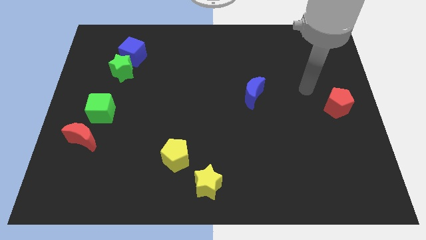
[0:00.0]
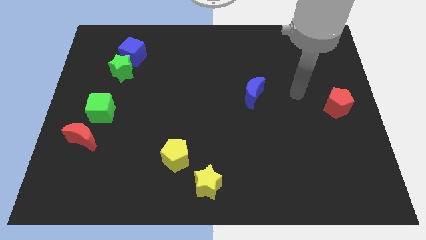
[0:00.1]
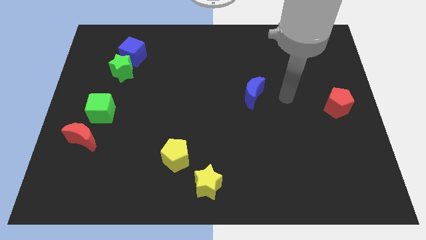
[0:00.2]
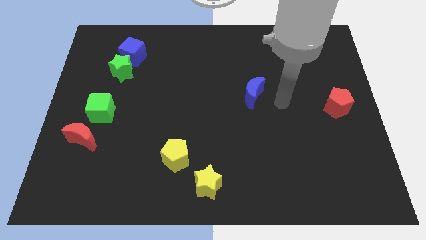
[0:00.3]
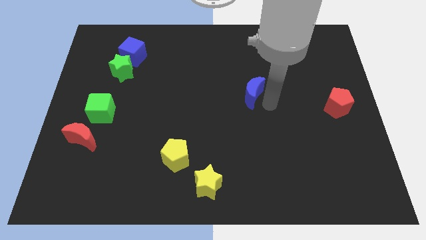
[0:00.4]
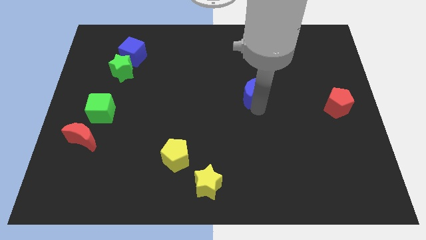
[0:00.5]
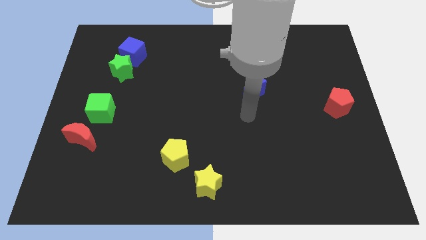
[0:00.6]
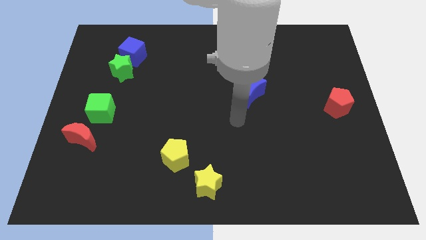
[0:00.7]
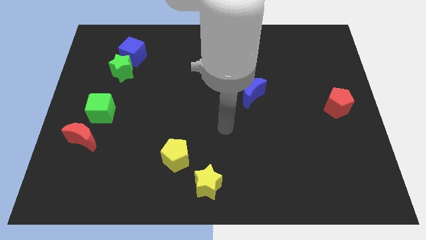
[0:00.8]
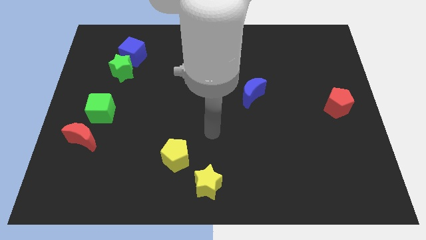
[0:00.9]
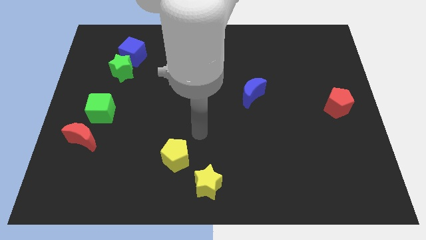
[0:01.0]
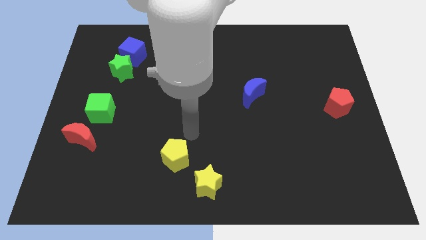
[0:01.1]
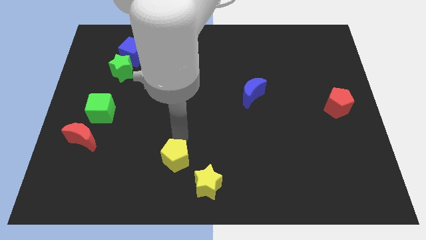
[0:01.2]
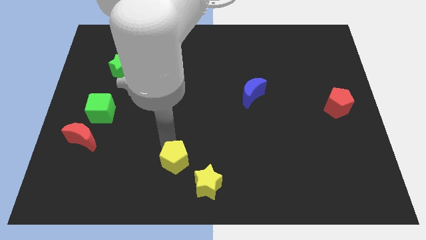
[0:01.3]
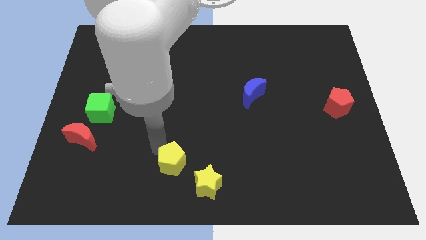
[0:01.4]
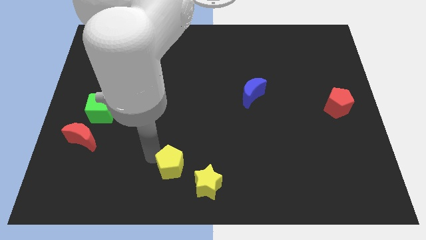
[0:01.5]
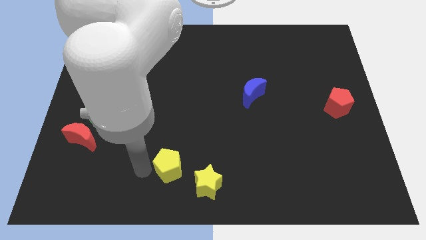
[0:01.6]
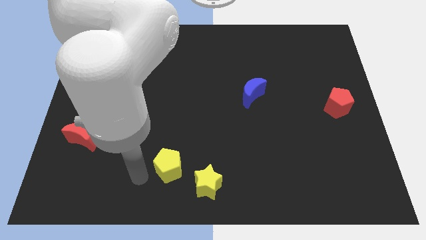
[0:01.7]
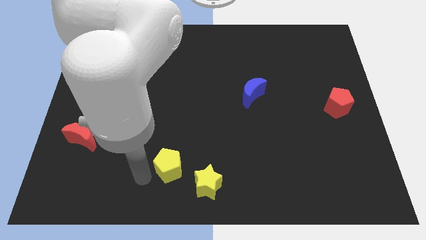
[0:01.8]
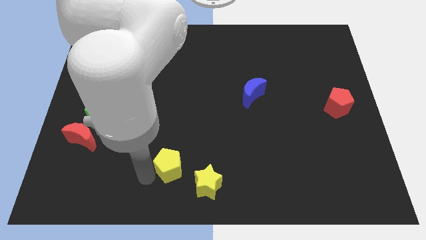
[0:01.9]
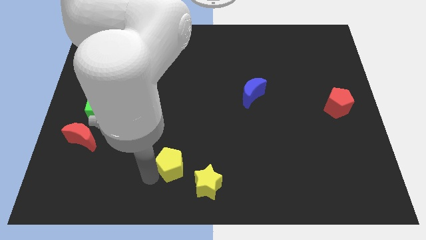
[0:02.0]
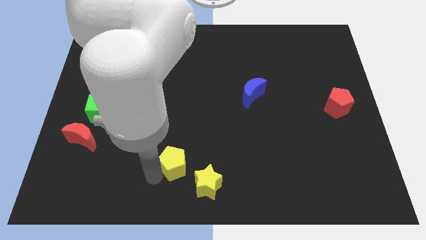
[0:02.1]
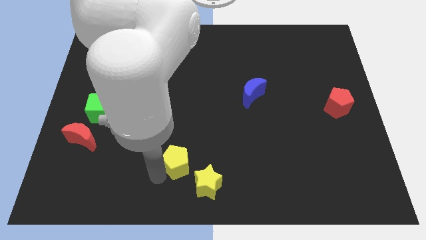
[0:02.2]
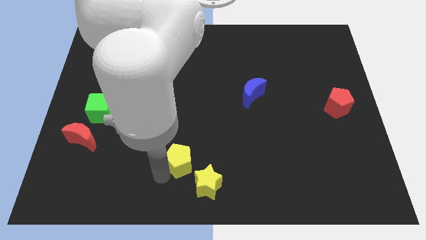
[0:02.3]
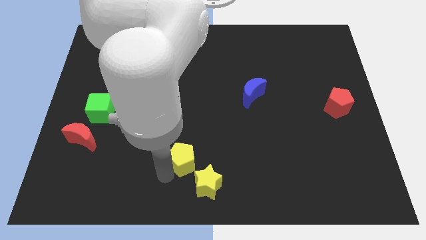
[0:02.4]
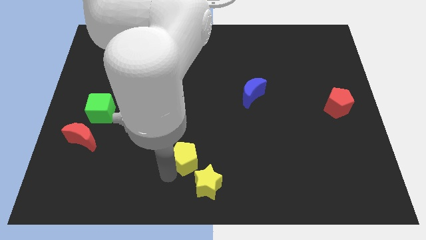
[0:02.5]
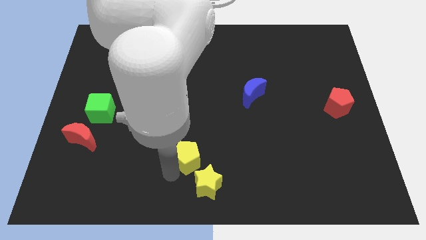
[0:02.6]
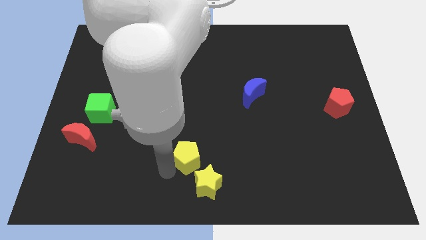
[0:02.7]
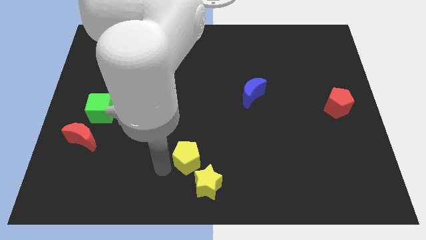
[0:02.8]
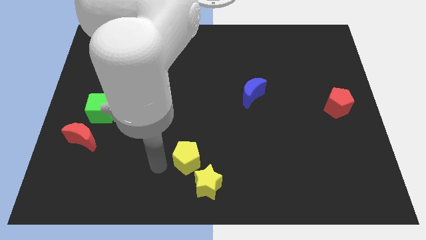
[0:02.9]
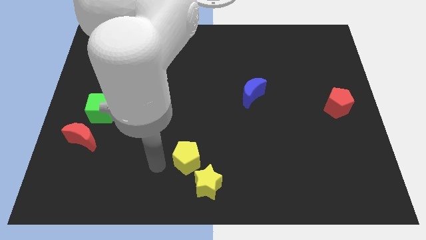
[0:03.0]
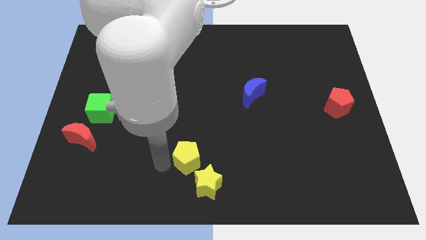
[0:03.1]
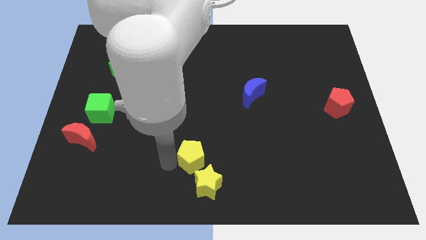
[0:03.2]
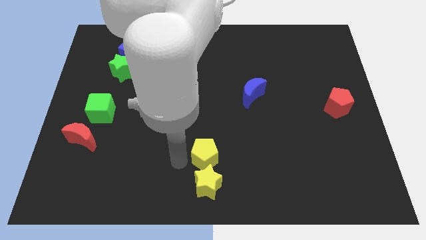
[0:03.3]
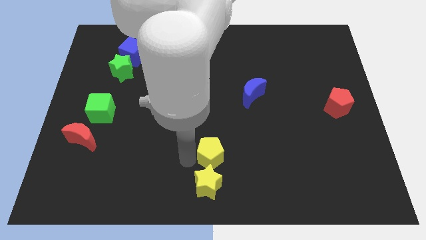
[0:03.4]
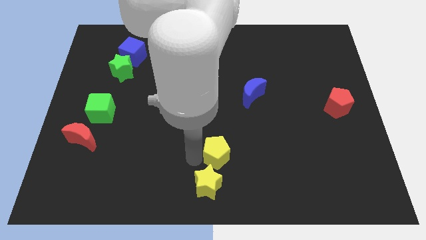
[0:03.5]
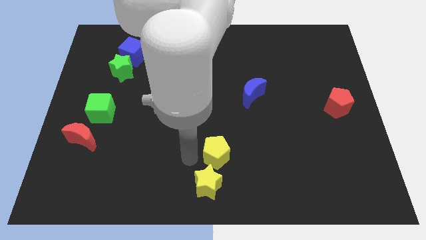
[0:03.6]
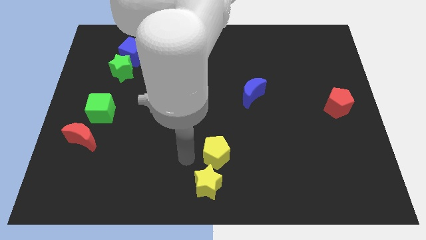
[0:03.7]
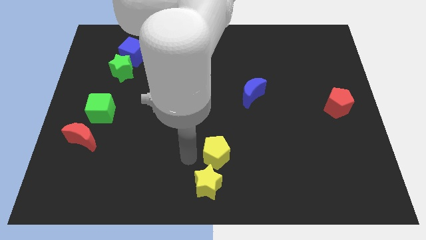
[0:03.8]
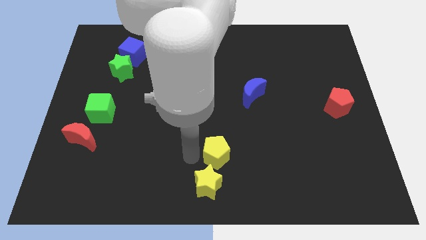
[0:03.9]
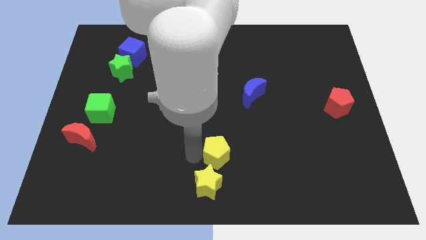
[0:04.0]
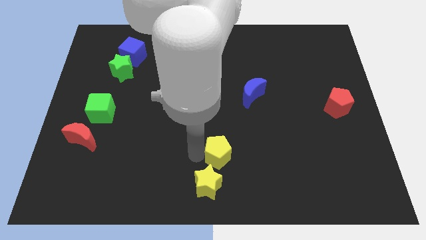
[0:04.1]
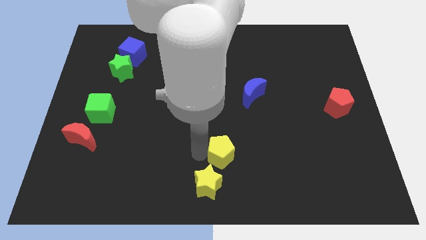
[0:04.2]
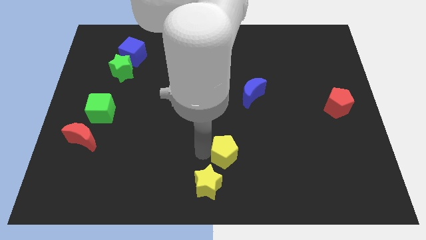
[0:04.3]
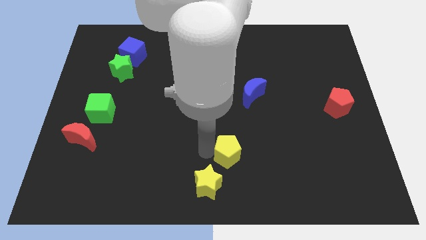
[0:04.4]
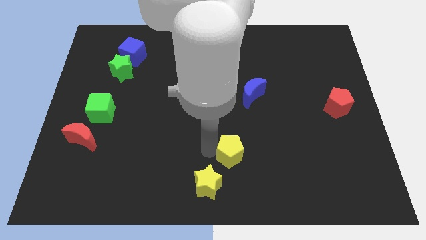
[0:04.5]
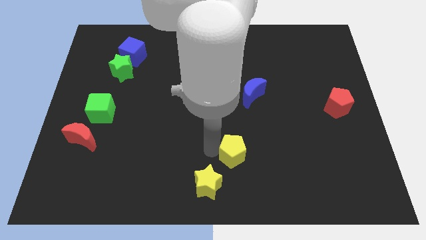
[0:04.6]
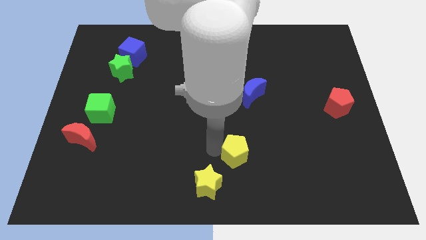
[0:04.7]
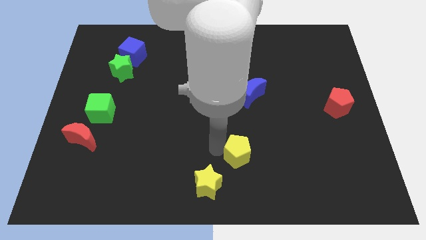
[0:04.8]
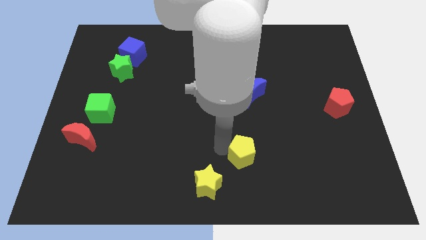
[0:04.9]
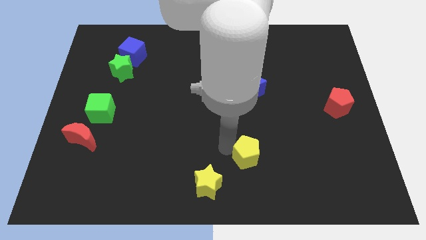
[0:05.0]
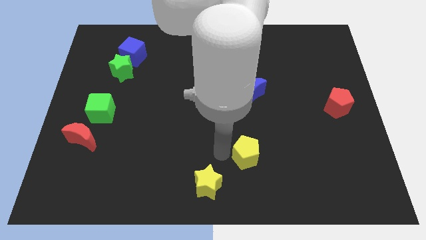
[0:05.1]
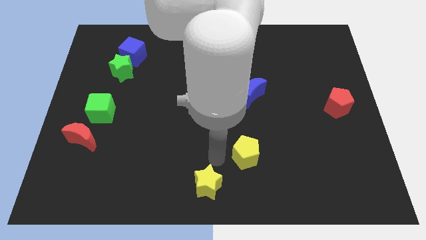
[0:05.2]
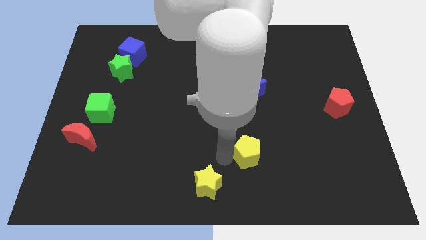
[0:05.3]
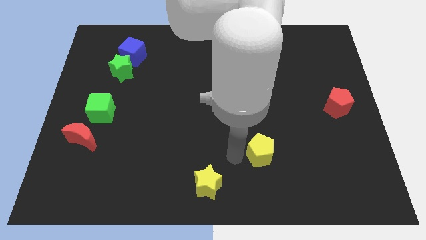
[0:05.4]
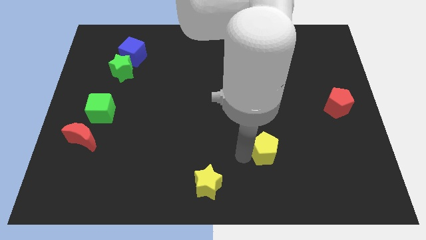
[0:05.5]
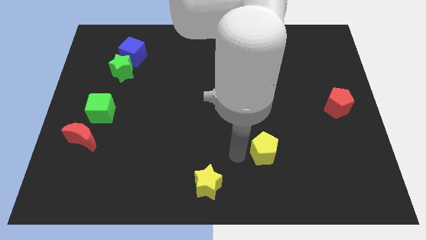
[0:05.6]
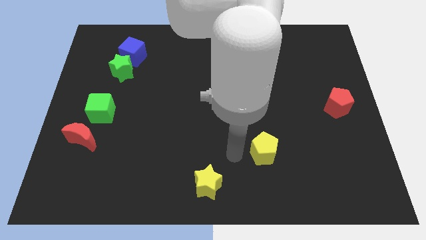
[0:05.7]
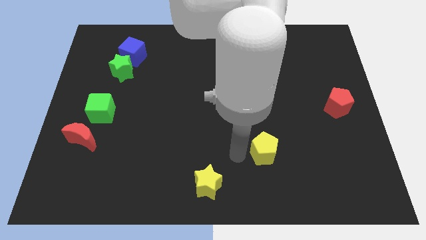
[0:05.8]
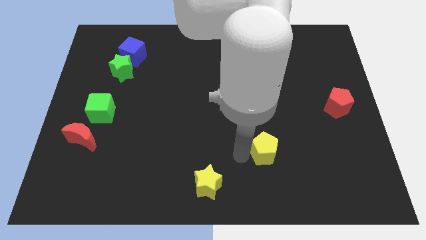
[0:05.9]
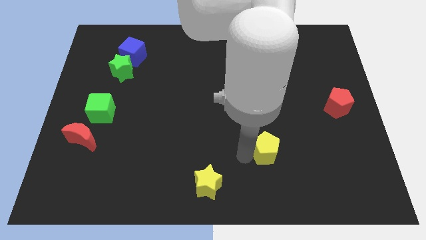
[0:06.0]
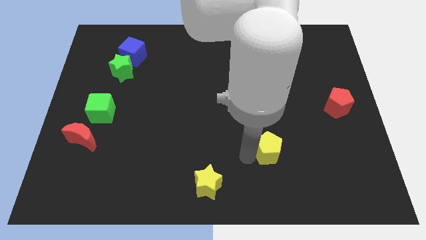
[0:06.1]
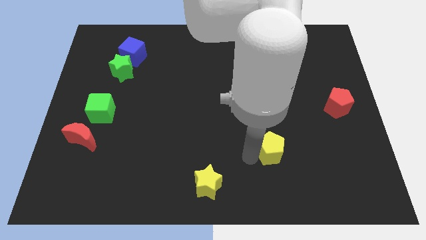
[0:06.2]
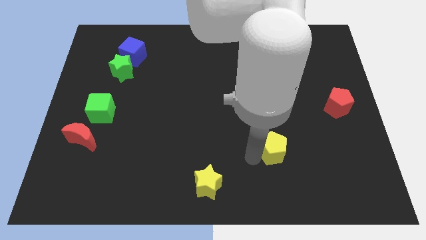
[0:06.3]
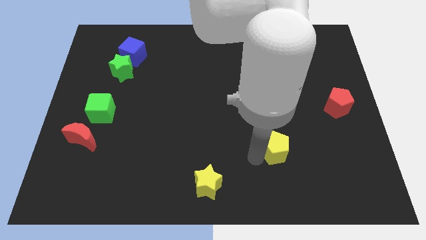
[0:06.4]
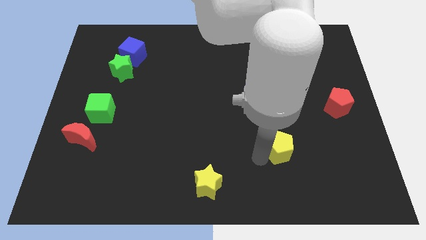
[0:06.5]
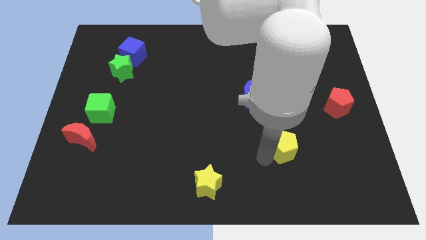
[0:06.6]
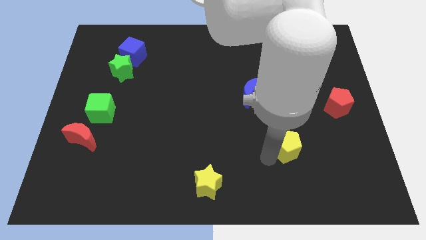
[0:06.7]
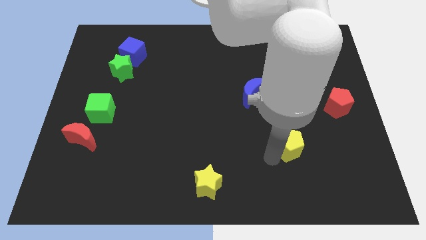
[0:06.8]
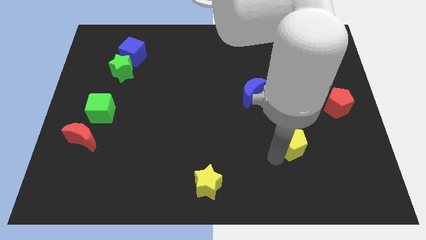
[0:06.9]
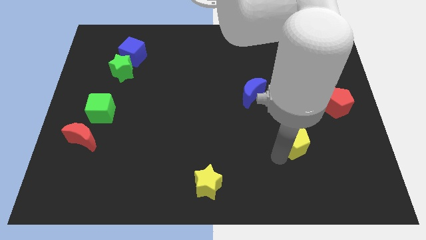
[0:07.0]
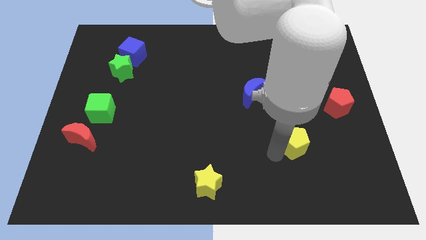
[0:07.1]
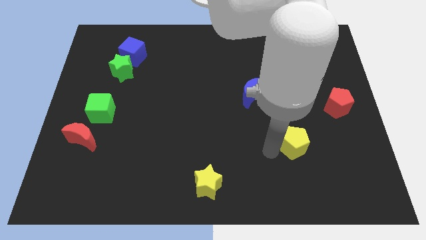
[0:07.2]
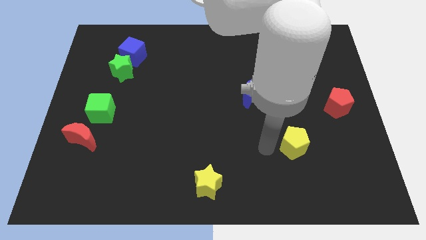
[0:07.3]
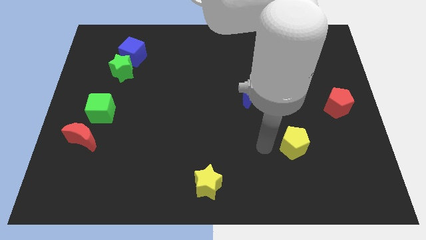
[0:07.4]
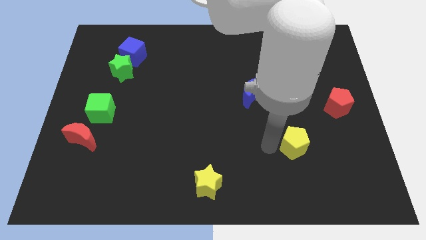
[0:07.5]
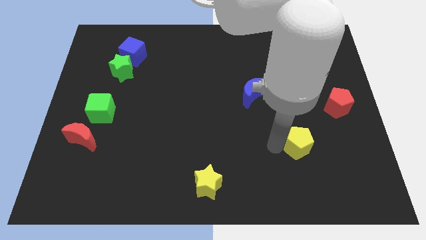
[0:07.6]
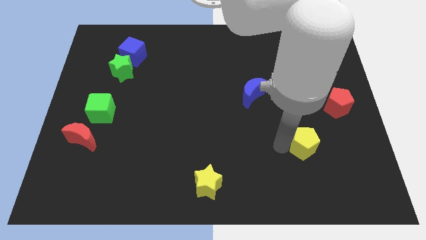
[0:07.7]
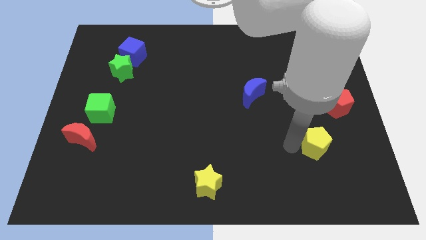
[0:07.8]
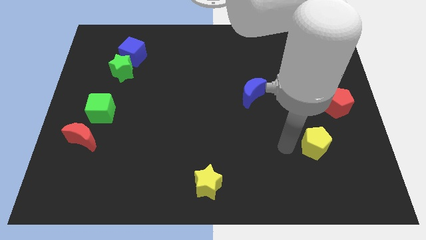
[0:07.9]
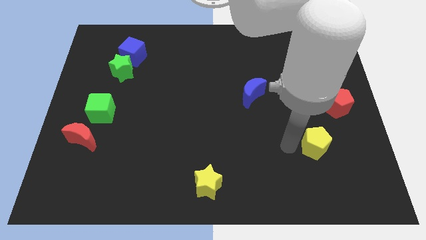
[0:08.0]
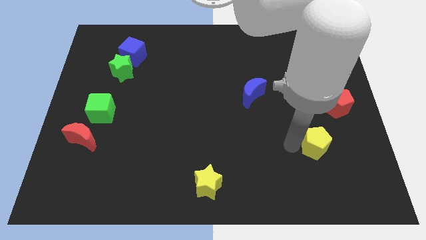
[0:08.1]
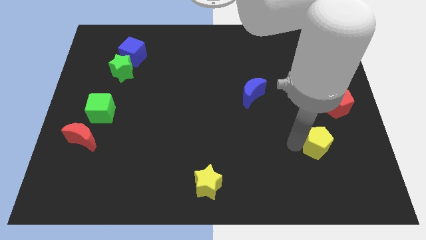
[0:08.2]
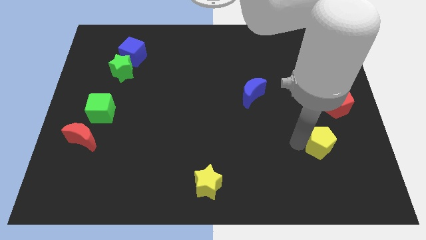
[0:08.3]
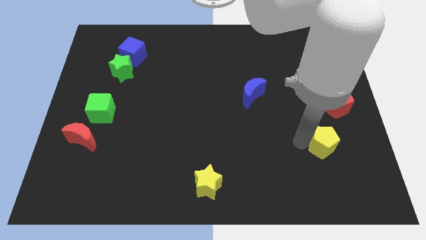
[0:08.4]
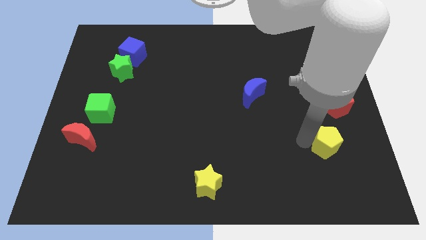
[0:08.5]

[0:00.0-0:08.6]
push the yellow pentagon below the red pentagon
